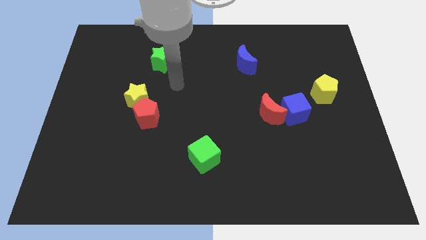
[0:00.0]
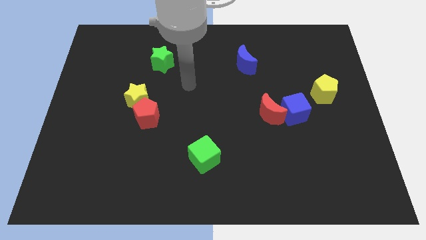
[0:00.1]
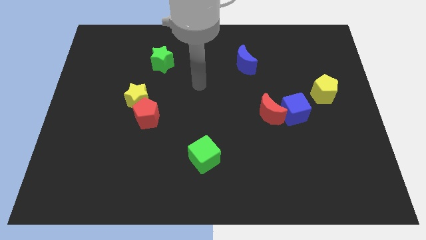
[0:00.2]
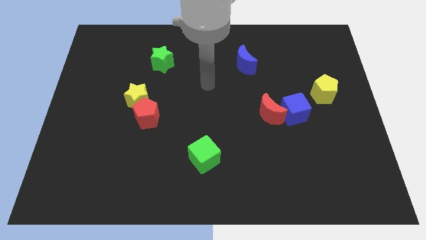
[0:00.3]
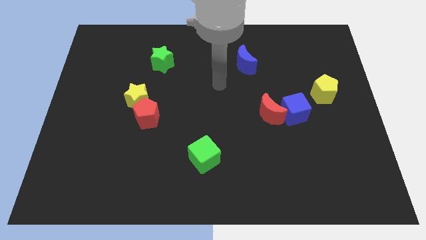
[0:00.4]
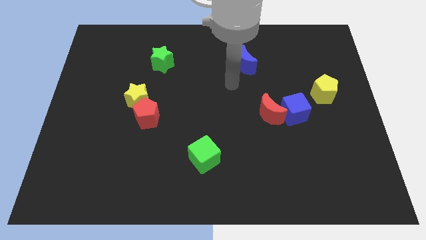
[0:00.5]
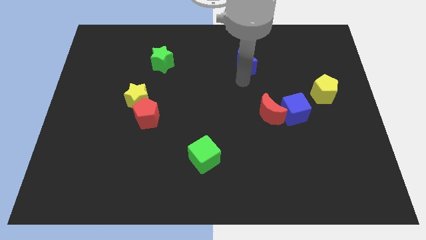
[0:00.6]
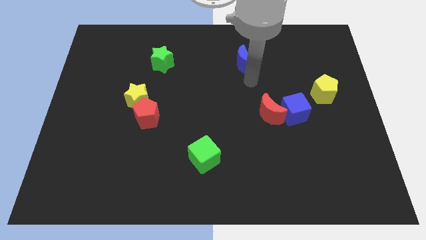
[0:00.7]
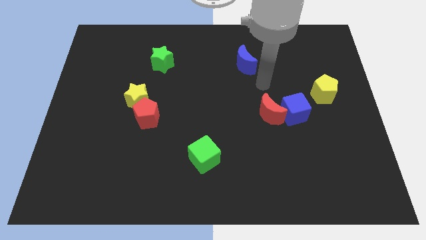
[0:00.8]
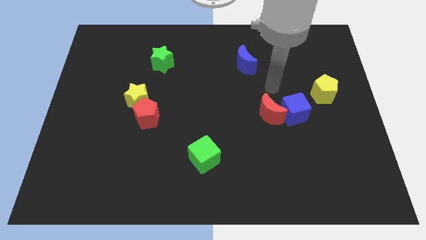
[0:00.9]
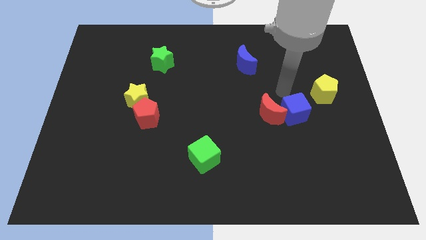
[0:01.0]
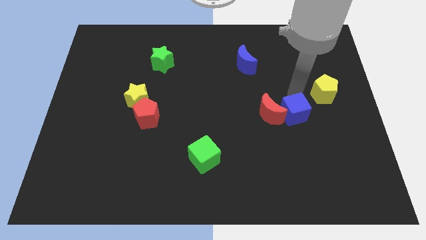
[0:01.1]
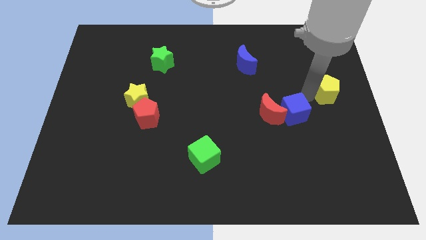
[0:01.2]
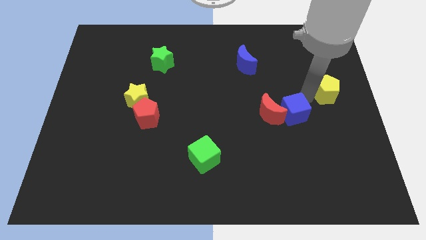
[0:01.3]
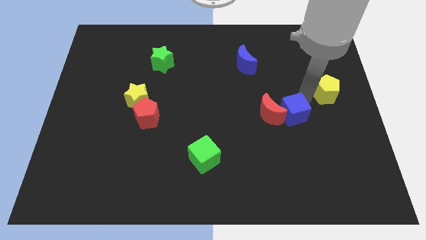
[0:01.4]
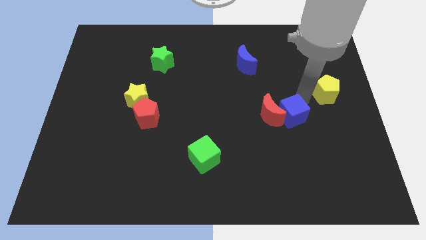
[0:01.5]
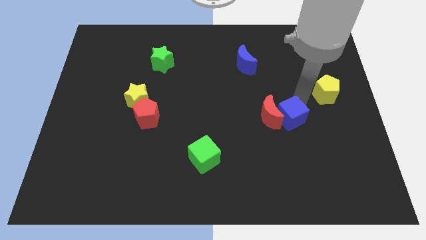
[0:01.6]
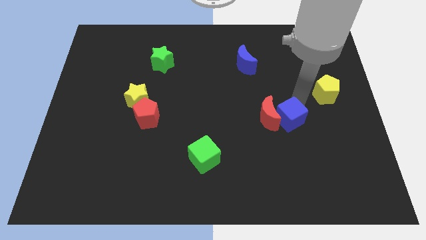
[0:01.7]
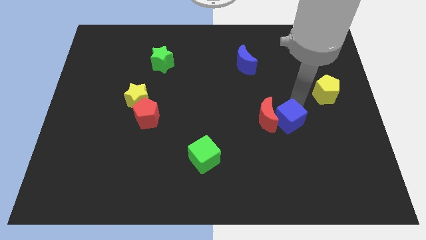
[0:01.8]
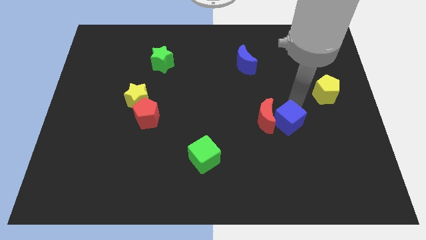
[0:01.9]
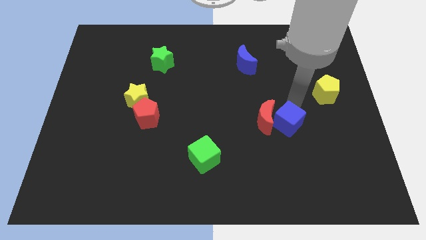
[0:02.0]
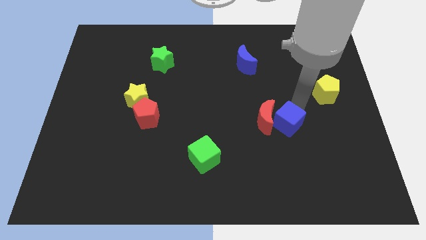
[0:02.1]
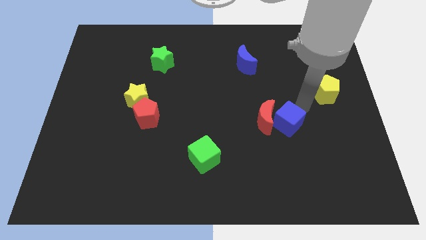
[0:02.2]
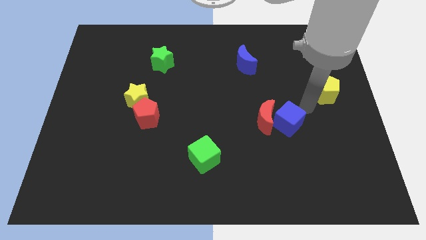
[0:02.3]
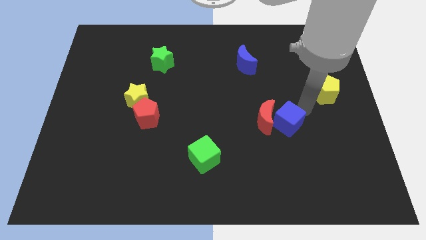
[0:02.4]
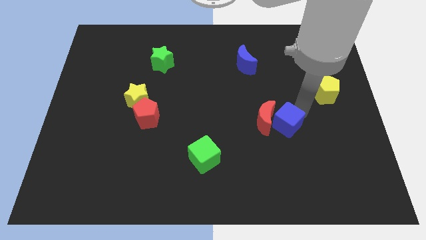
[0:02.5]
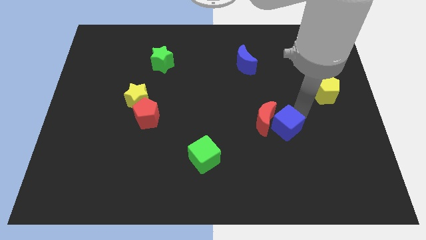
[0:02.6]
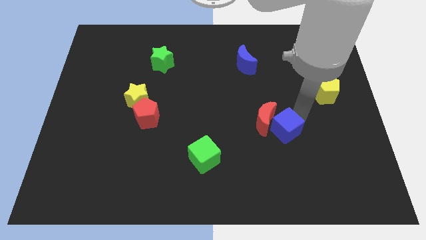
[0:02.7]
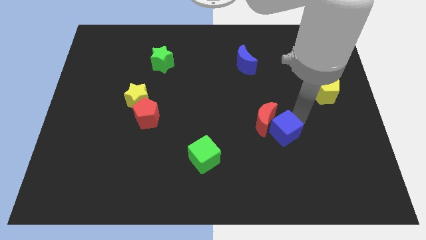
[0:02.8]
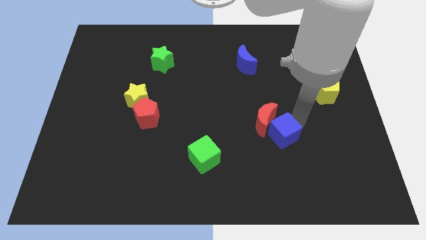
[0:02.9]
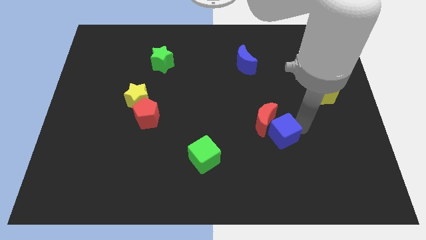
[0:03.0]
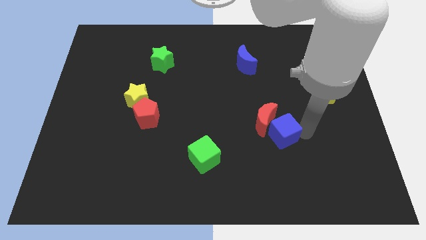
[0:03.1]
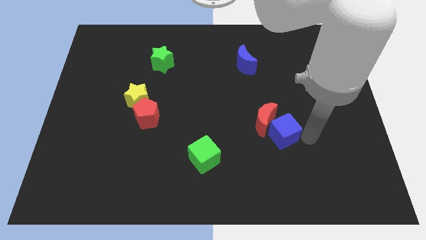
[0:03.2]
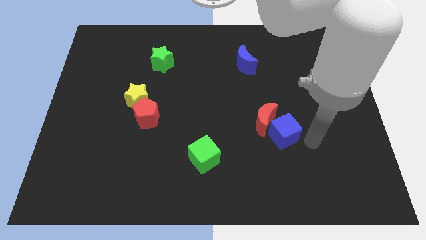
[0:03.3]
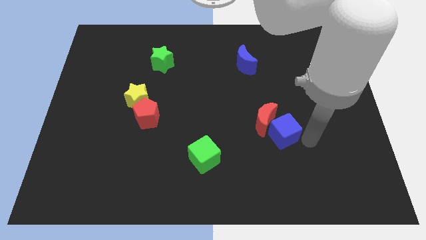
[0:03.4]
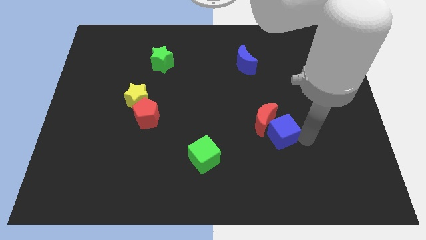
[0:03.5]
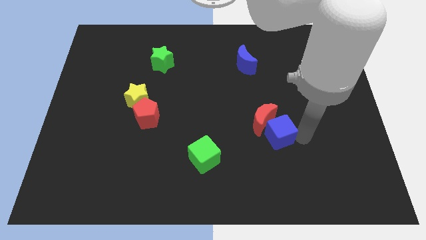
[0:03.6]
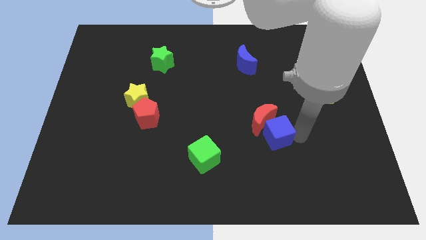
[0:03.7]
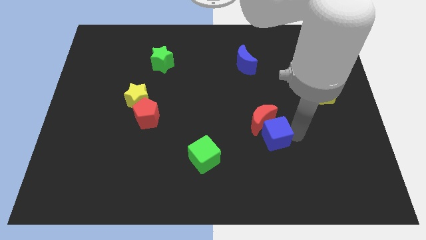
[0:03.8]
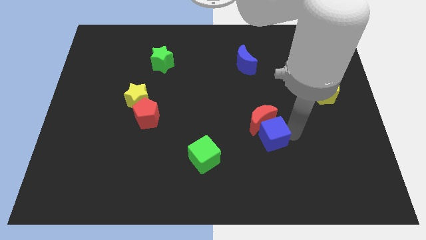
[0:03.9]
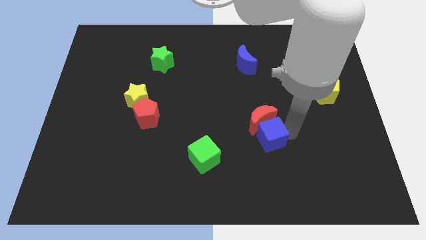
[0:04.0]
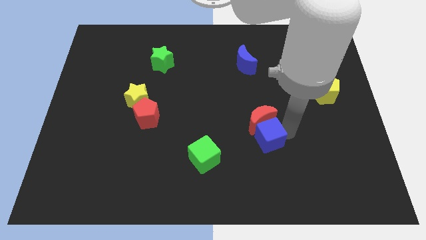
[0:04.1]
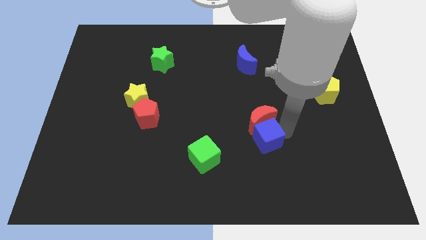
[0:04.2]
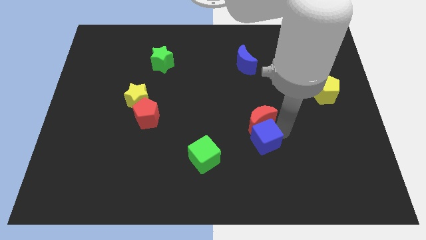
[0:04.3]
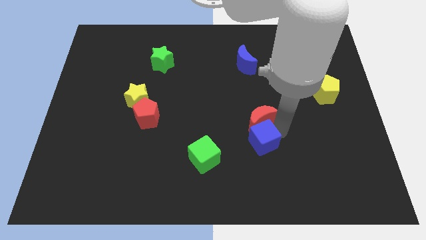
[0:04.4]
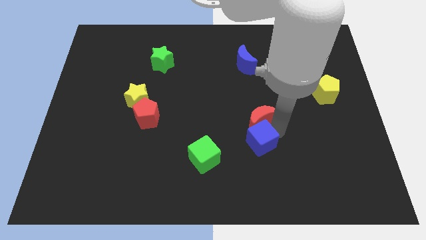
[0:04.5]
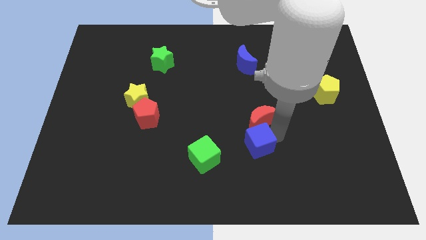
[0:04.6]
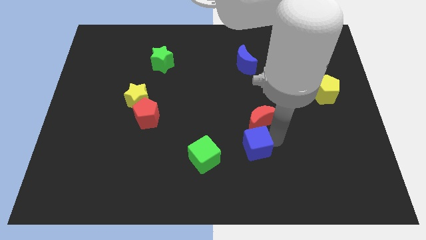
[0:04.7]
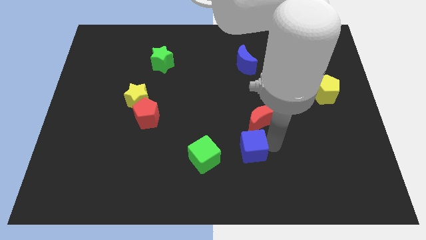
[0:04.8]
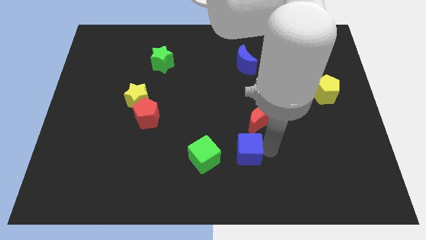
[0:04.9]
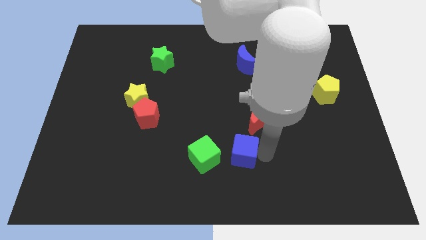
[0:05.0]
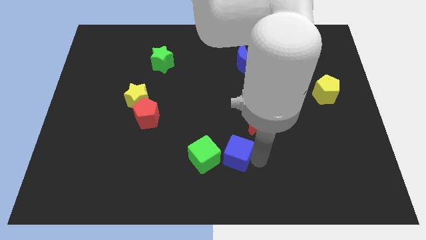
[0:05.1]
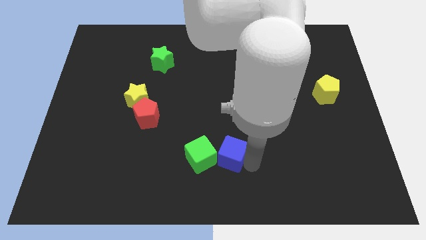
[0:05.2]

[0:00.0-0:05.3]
slightly slide the blue cube left

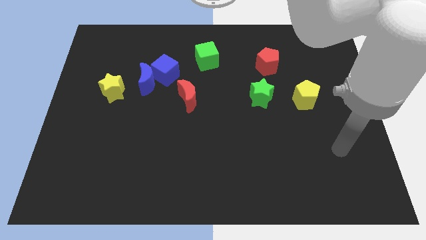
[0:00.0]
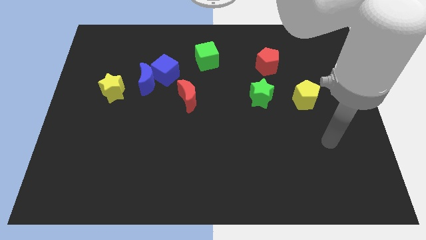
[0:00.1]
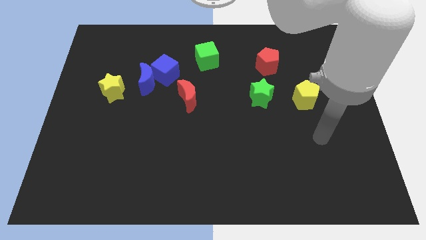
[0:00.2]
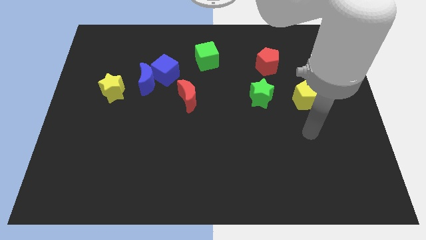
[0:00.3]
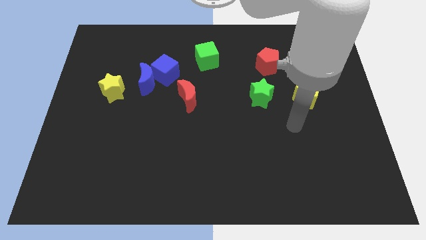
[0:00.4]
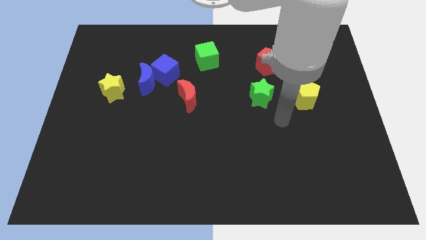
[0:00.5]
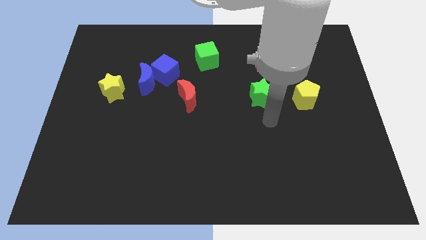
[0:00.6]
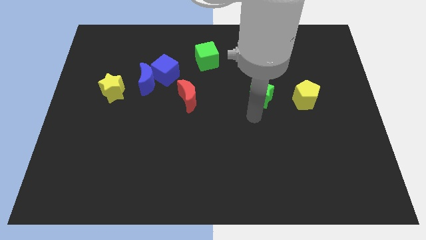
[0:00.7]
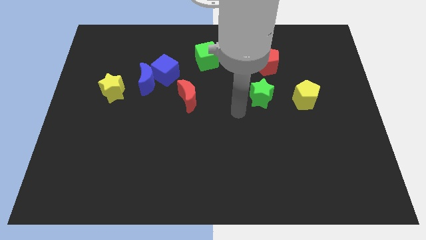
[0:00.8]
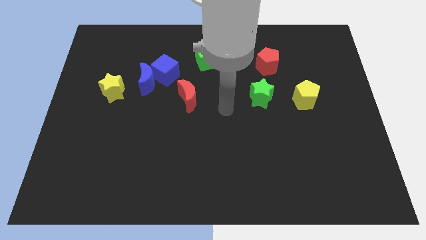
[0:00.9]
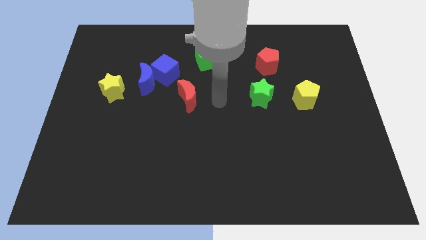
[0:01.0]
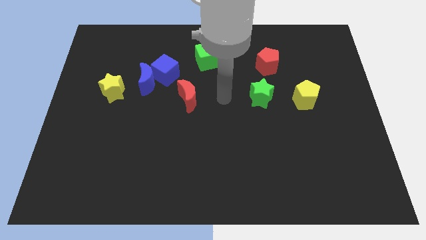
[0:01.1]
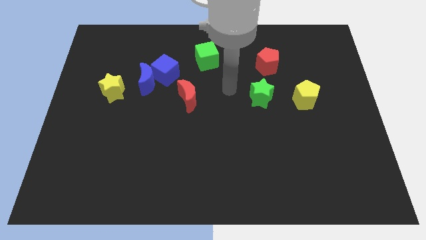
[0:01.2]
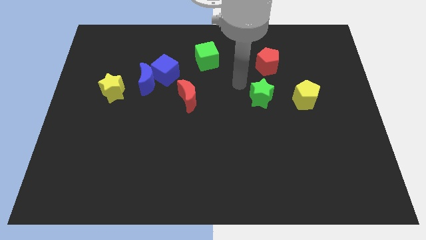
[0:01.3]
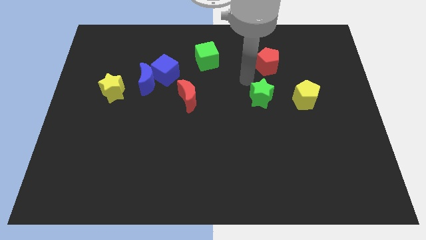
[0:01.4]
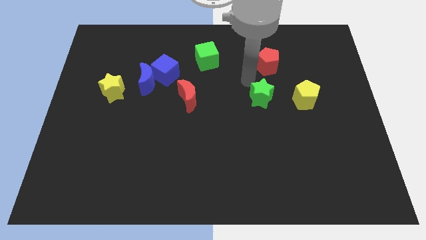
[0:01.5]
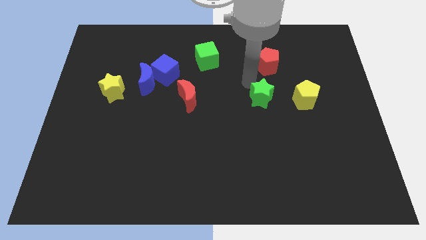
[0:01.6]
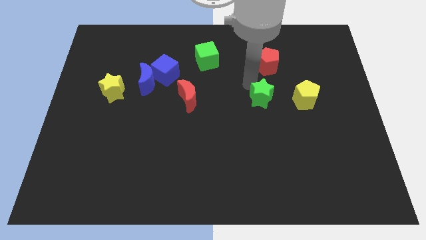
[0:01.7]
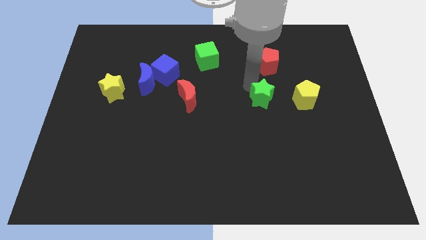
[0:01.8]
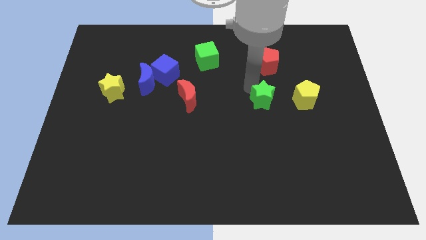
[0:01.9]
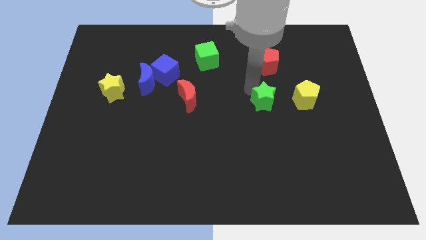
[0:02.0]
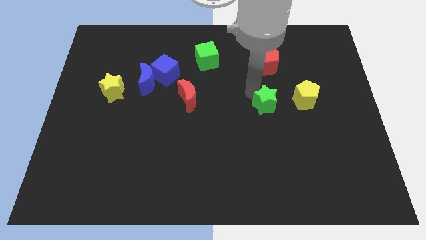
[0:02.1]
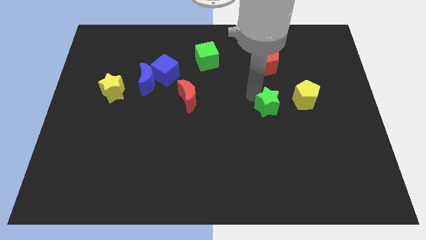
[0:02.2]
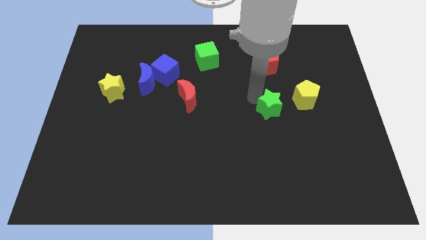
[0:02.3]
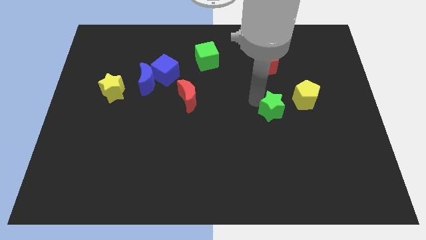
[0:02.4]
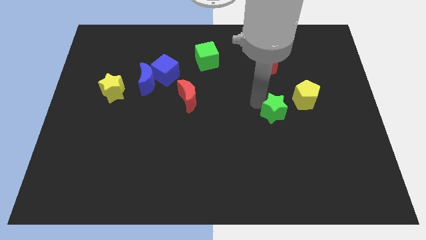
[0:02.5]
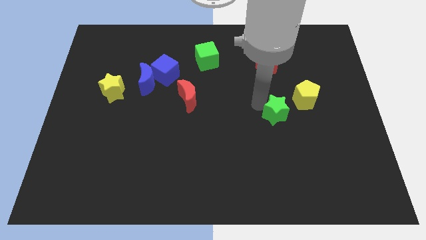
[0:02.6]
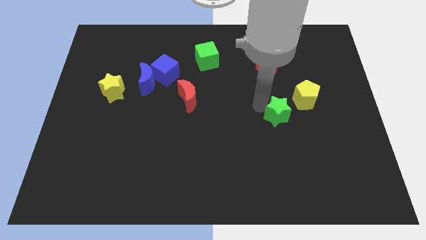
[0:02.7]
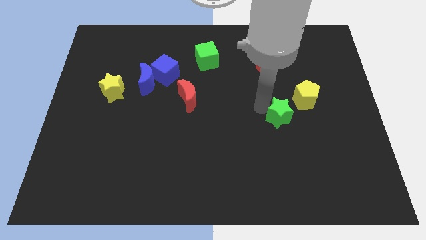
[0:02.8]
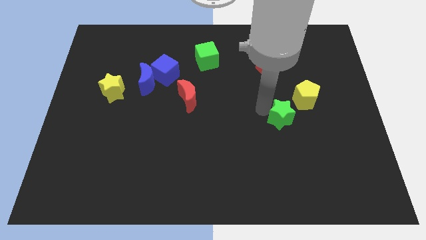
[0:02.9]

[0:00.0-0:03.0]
slightly slide the green star diagonally downwards and right
